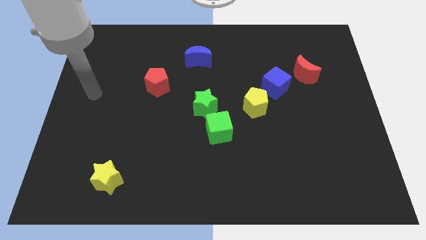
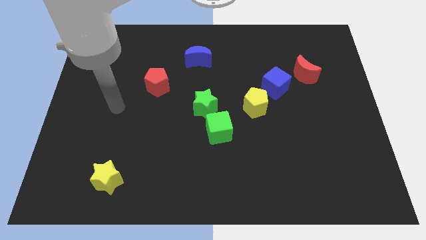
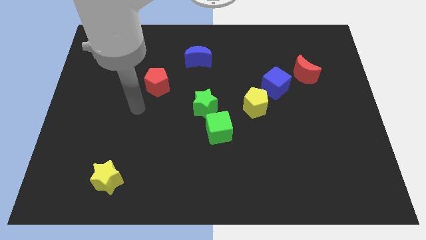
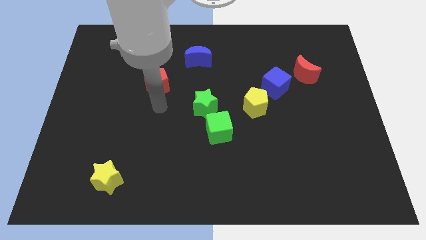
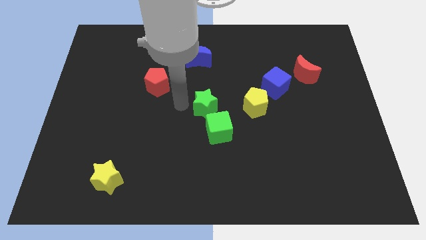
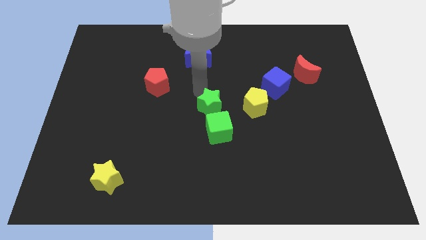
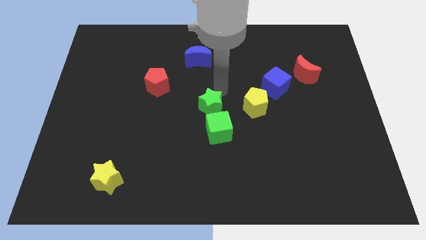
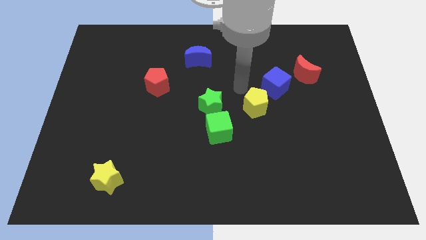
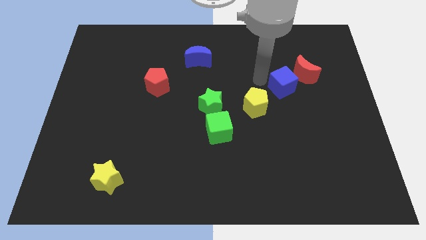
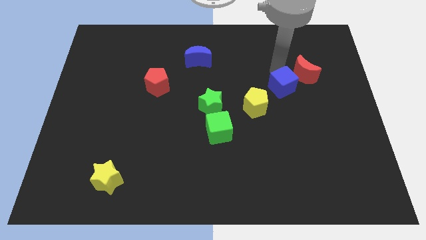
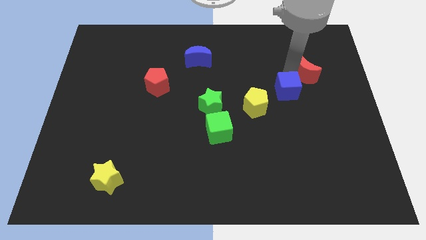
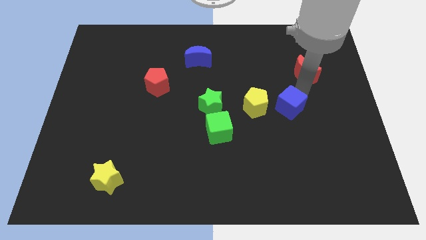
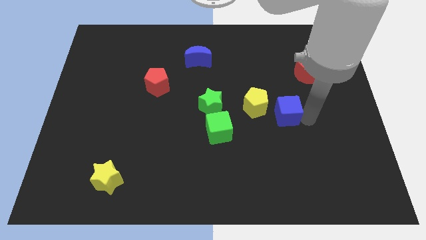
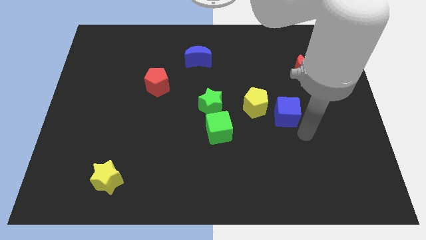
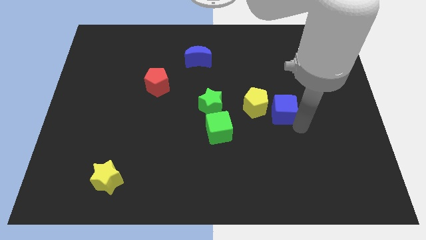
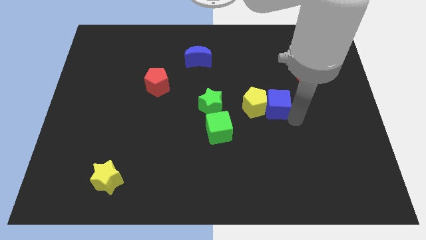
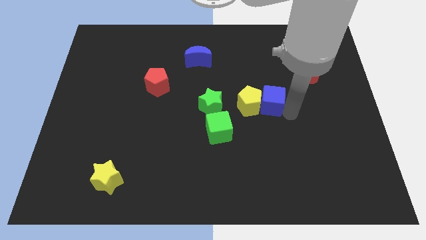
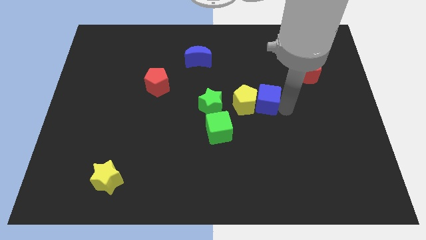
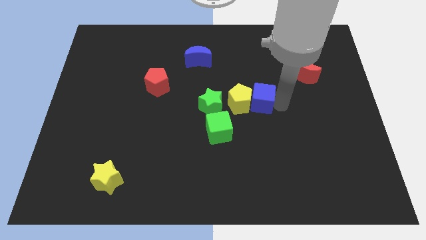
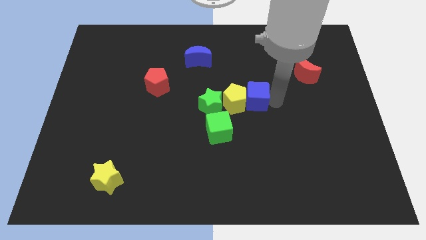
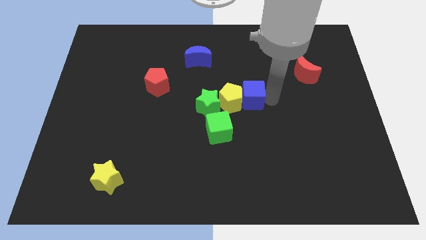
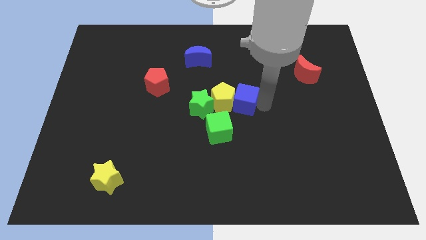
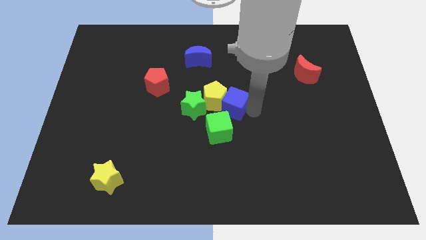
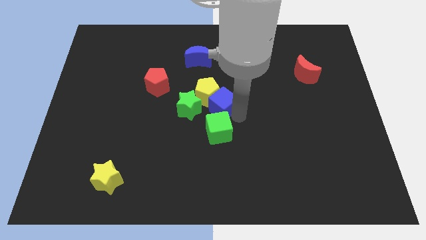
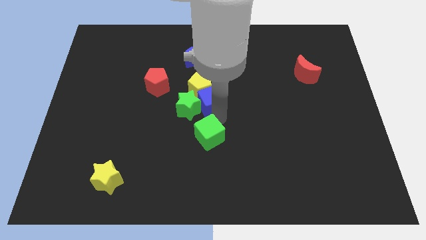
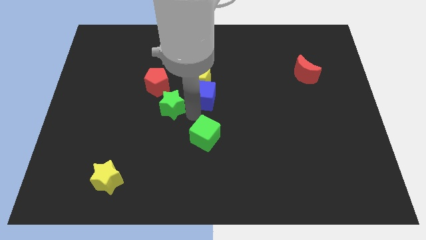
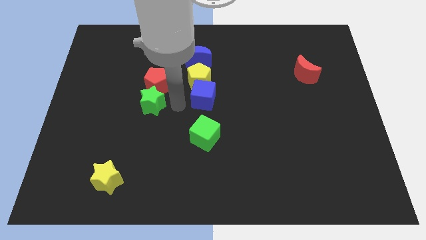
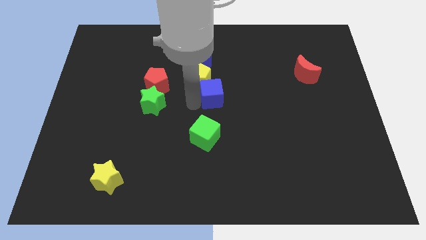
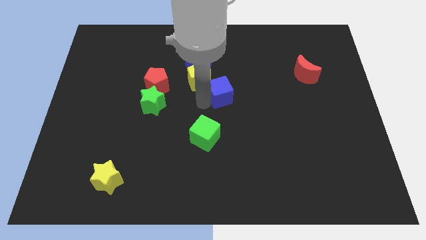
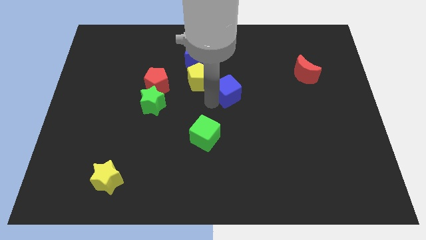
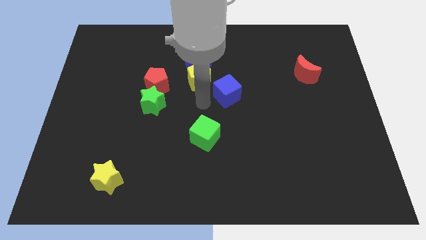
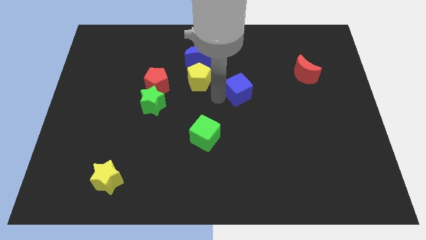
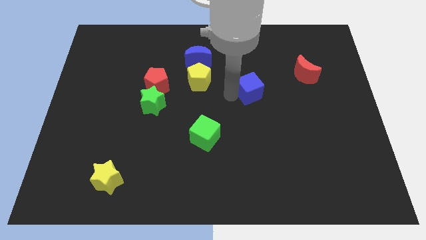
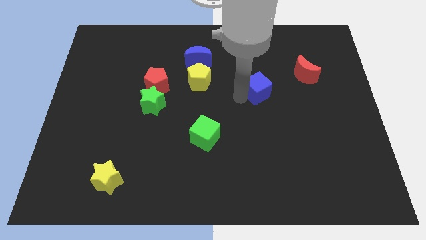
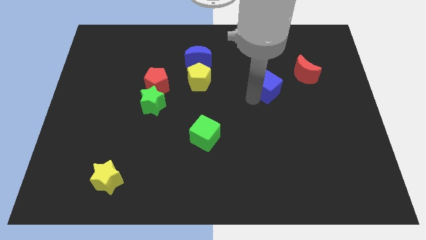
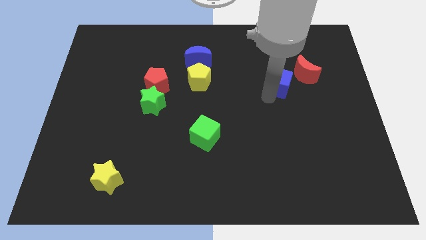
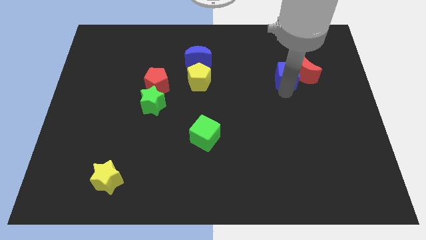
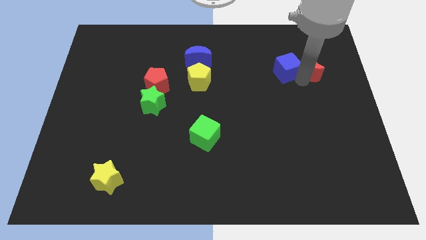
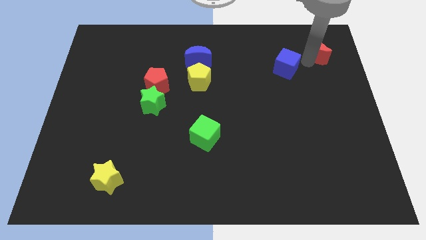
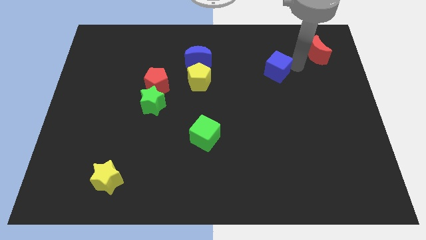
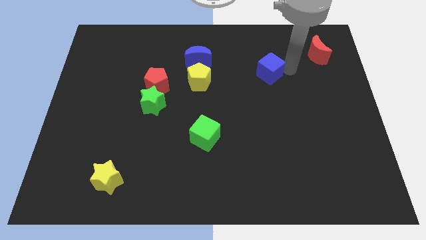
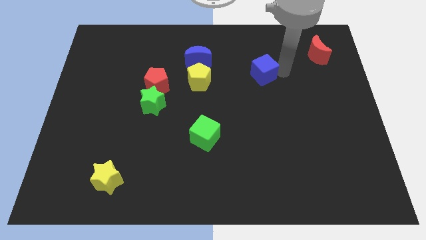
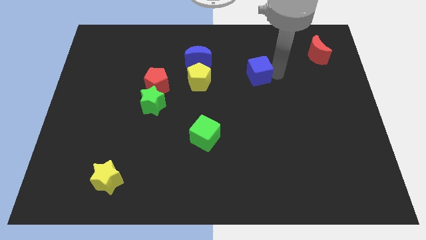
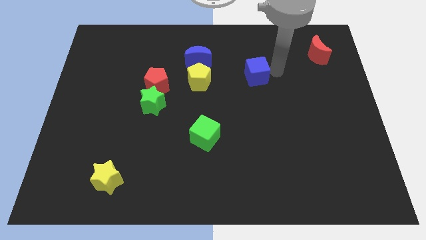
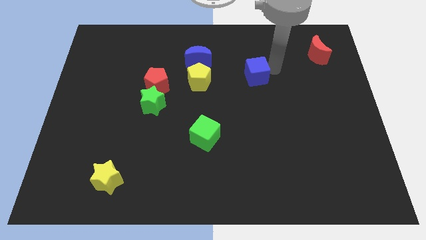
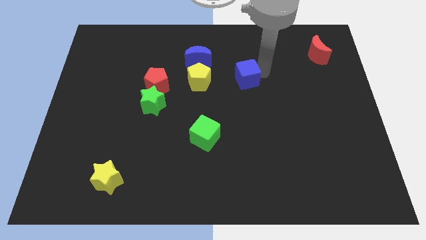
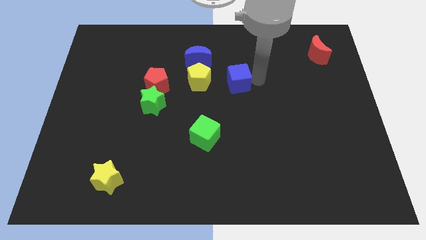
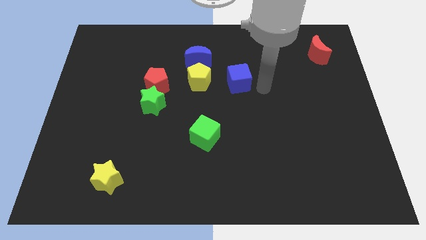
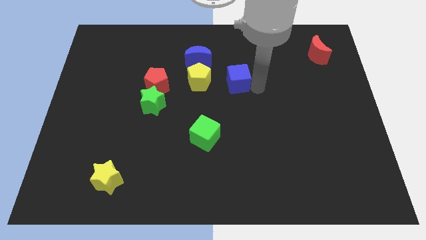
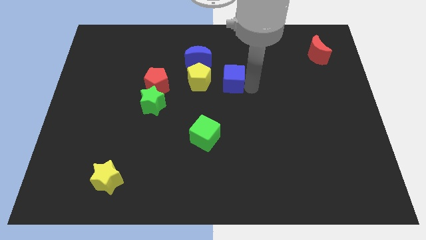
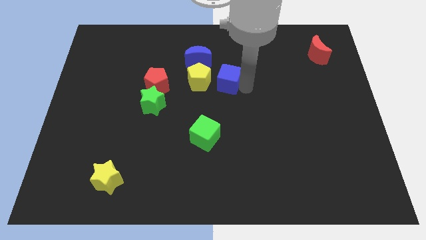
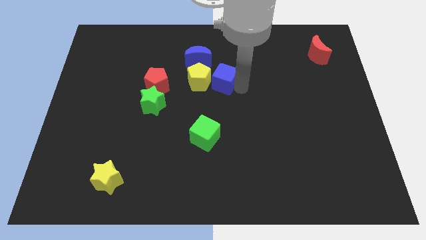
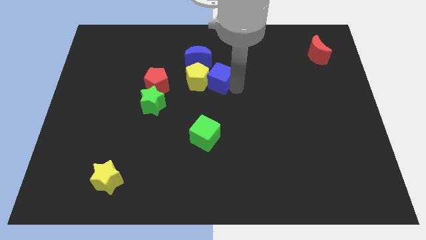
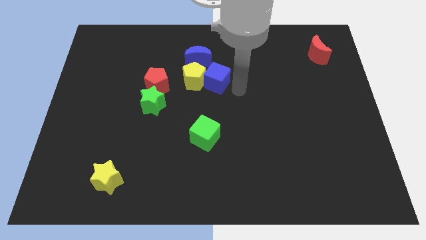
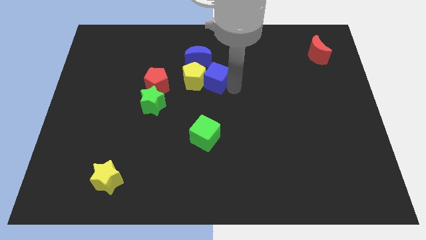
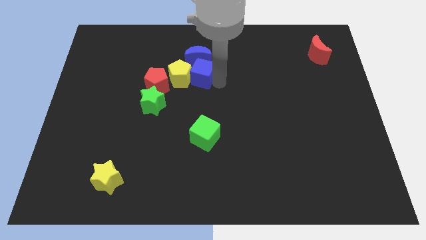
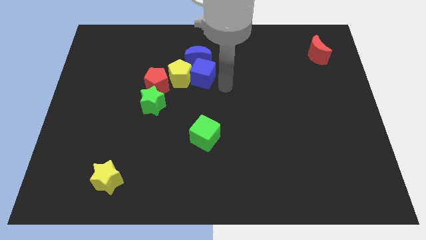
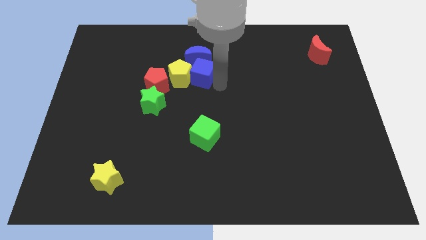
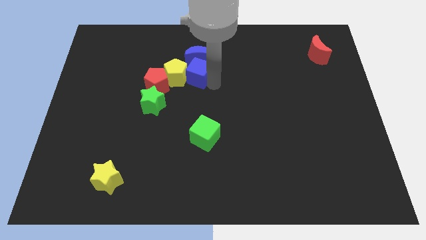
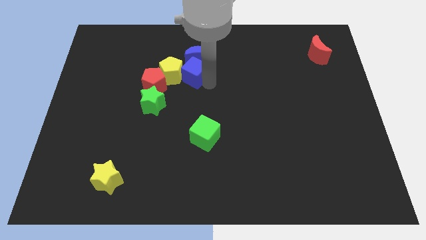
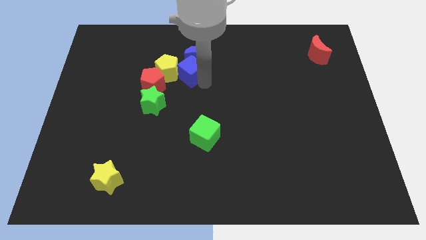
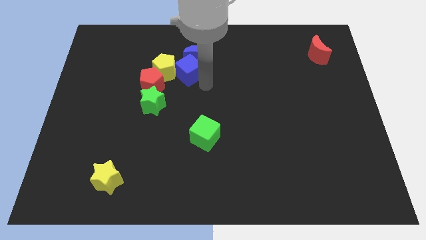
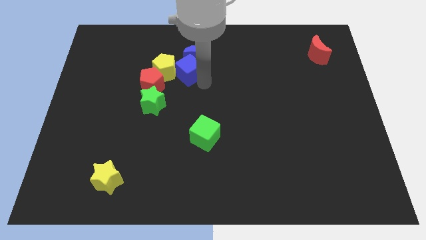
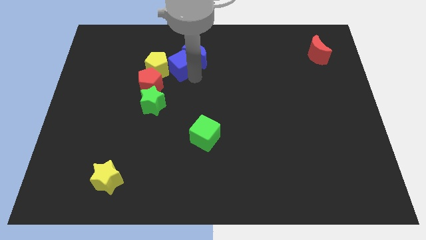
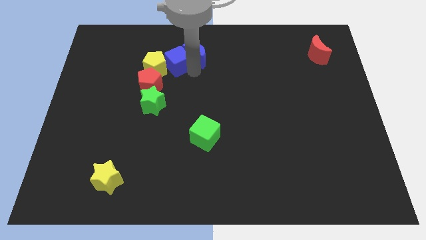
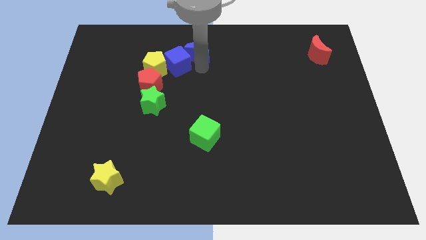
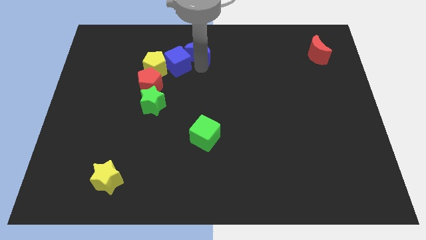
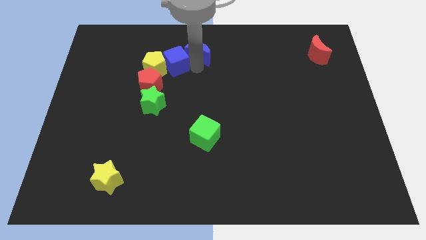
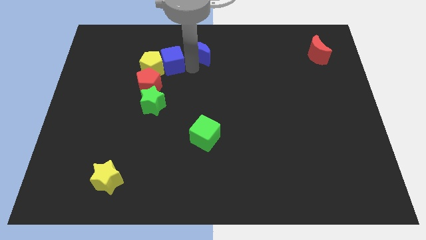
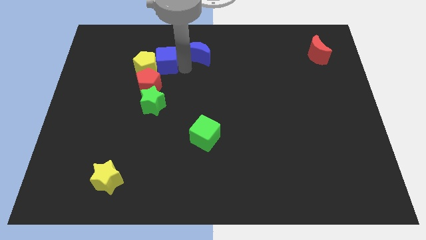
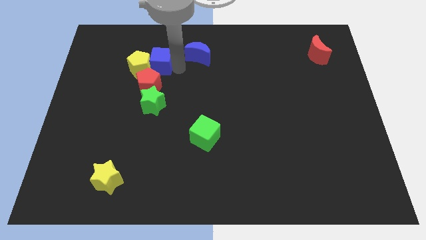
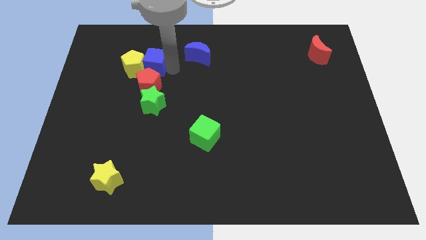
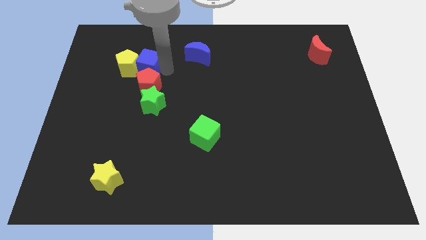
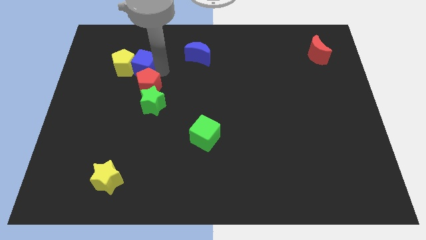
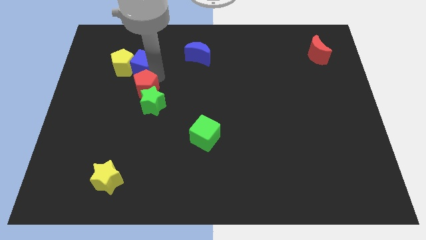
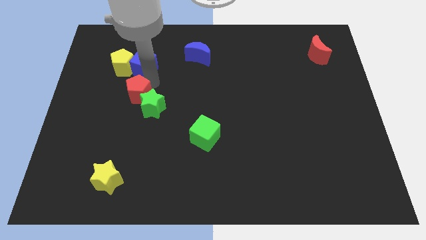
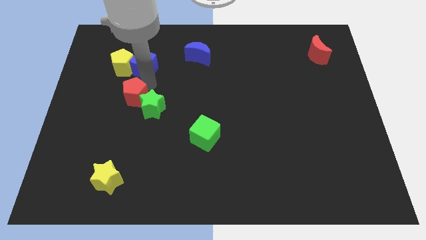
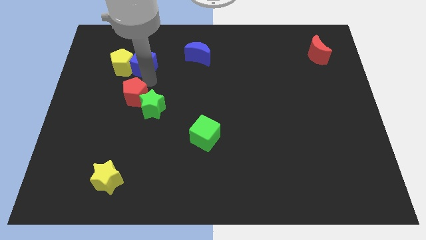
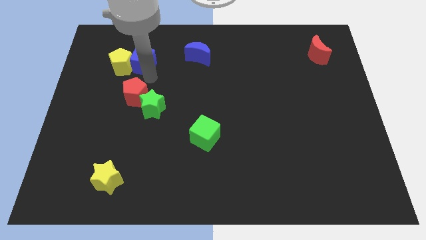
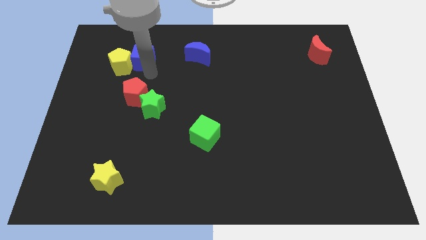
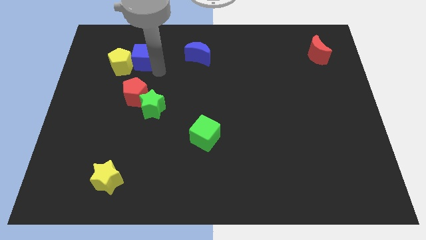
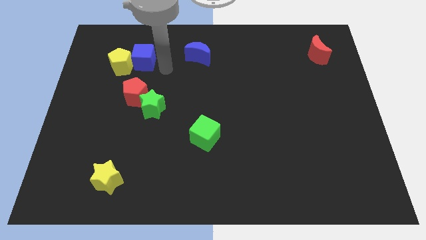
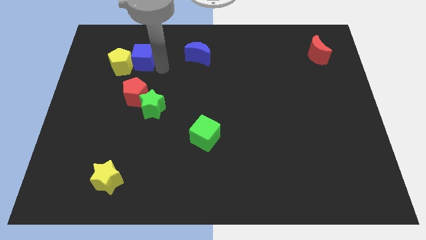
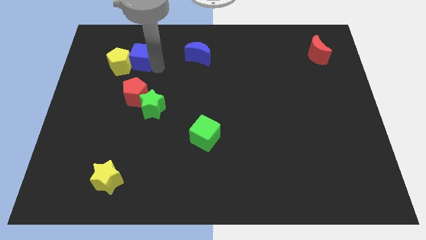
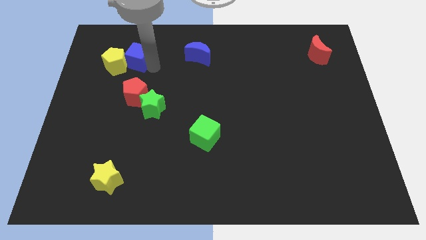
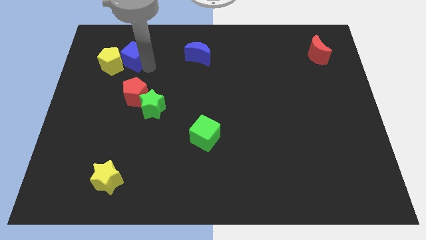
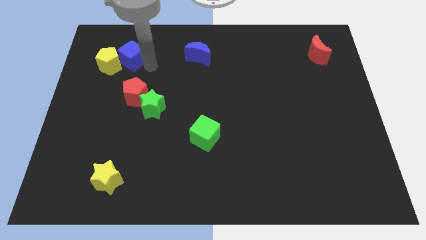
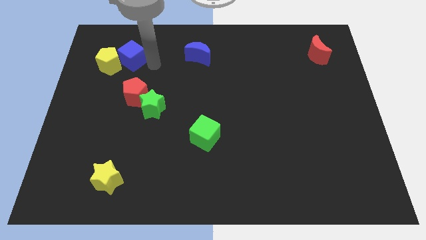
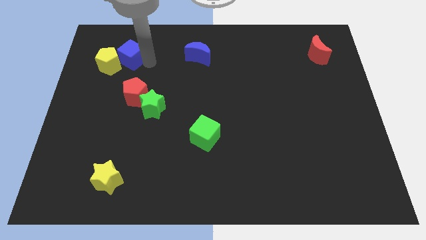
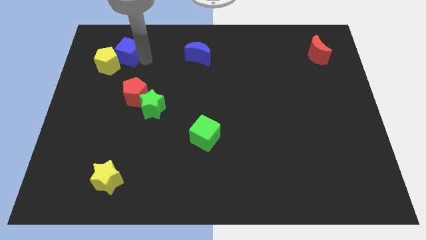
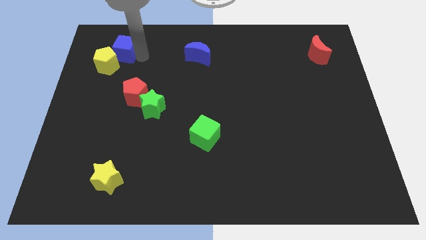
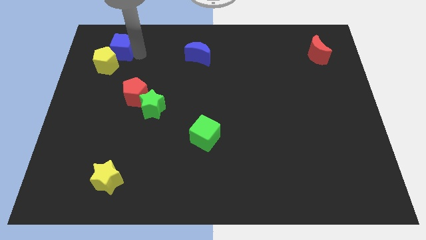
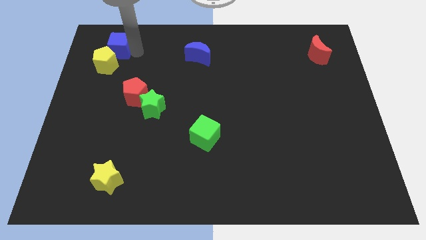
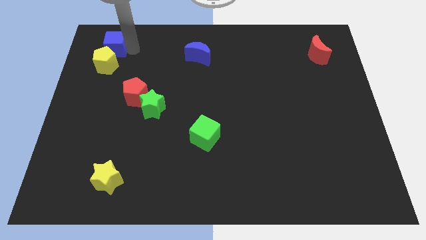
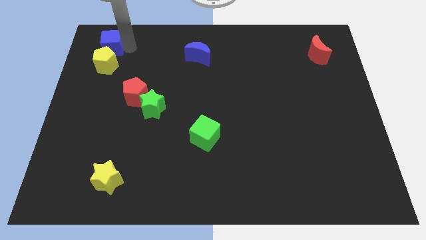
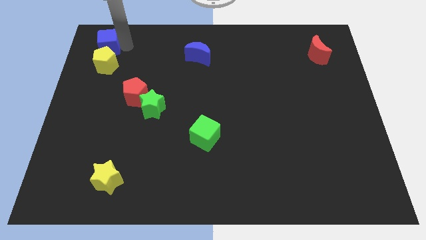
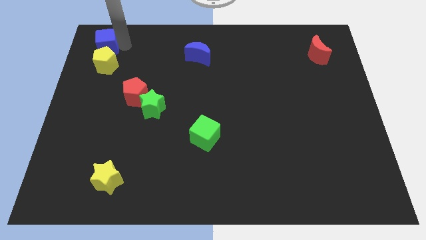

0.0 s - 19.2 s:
move the blue cube to the top left
